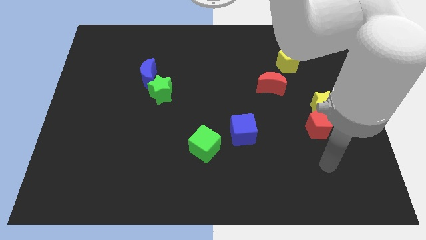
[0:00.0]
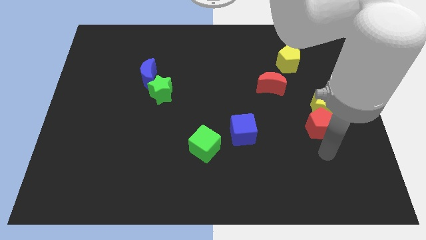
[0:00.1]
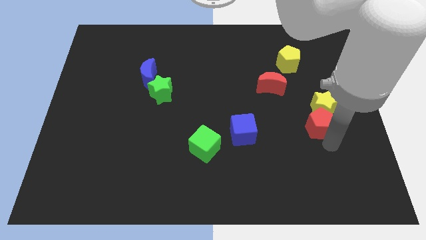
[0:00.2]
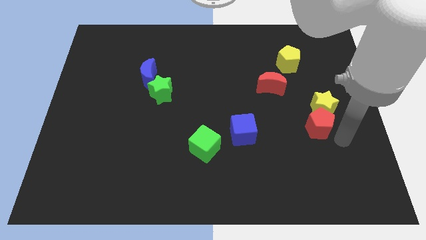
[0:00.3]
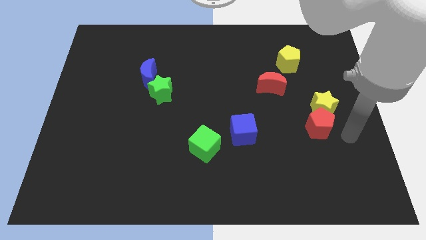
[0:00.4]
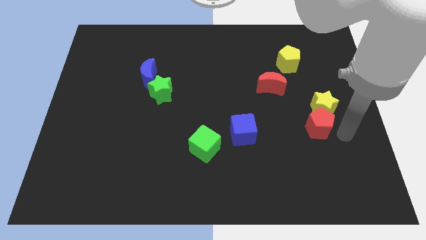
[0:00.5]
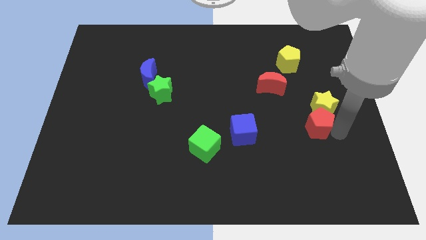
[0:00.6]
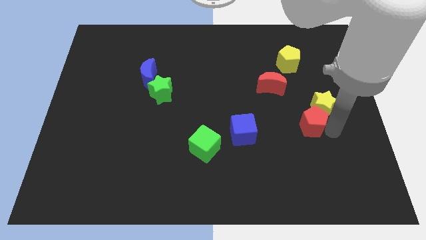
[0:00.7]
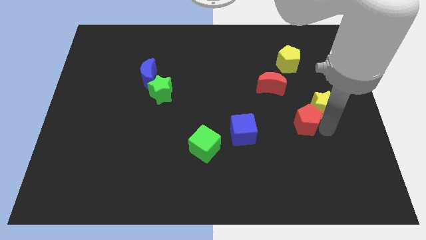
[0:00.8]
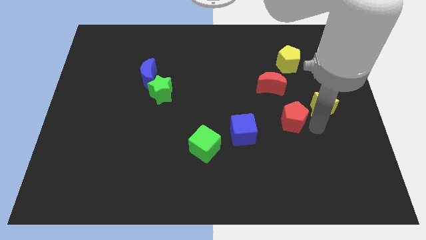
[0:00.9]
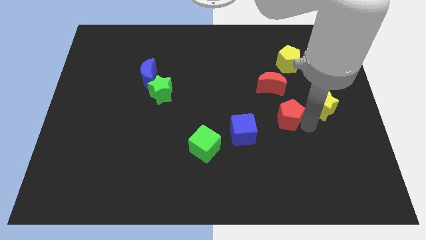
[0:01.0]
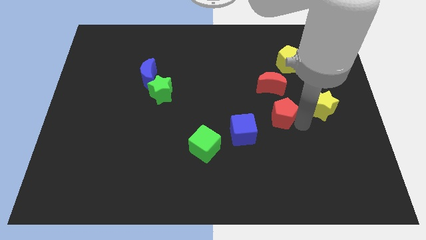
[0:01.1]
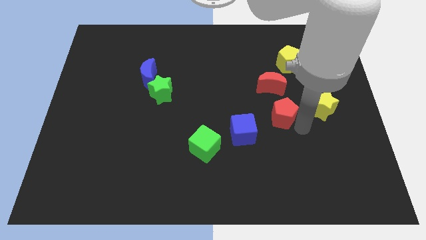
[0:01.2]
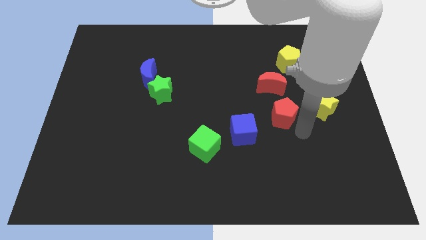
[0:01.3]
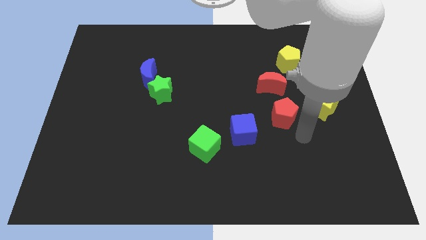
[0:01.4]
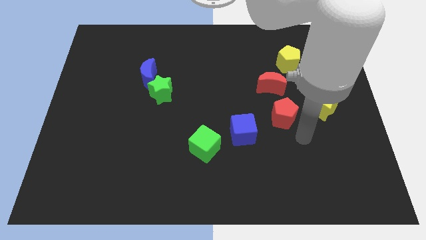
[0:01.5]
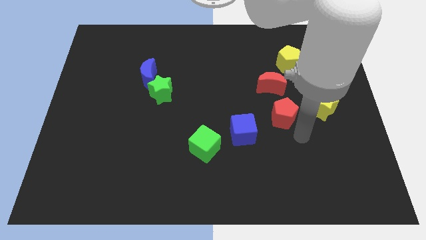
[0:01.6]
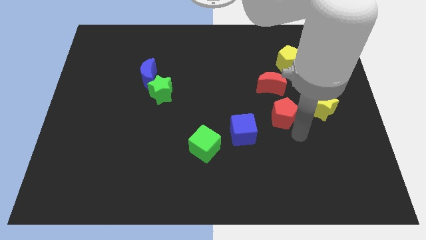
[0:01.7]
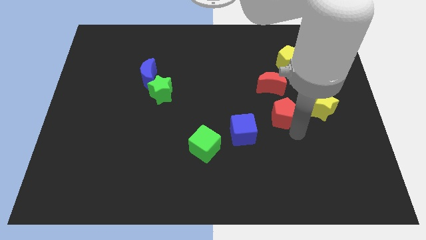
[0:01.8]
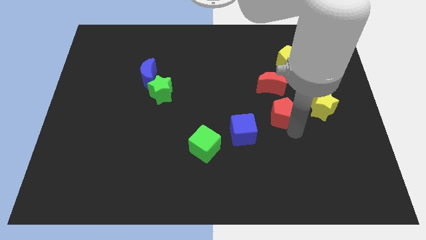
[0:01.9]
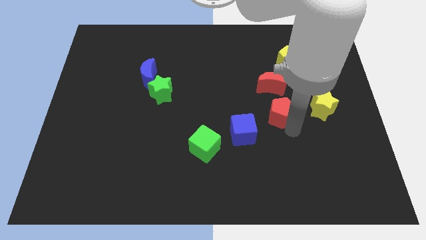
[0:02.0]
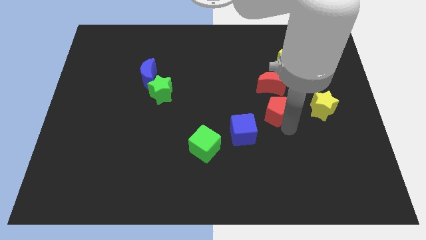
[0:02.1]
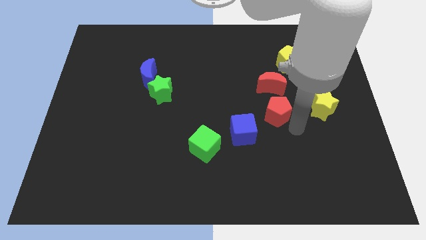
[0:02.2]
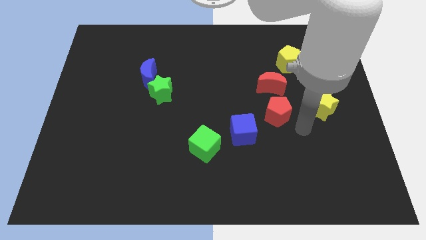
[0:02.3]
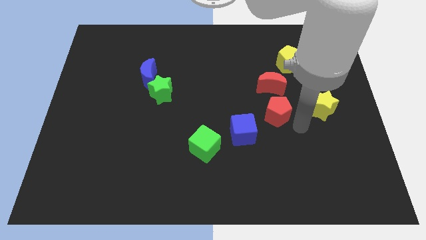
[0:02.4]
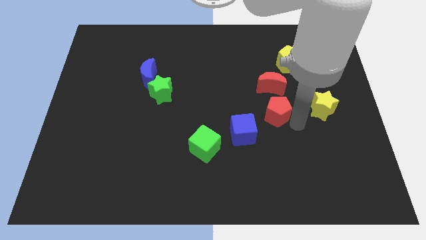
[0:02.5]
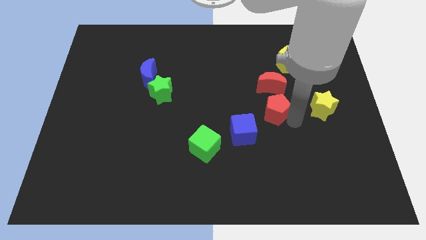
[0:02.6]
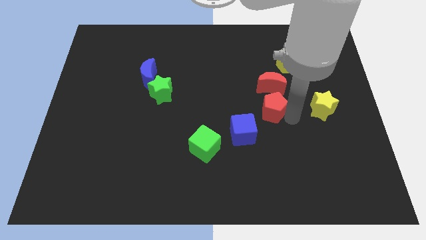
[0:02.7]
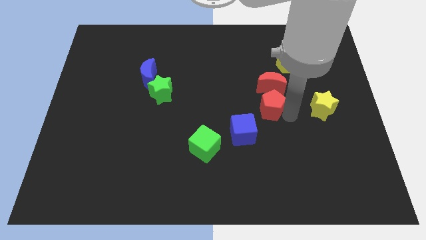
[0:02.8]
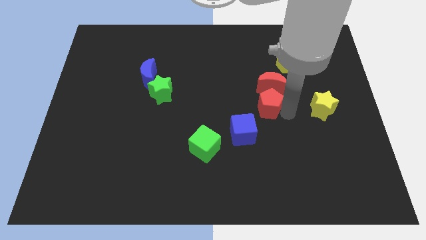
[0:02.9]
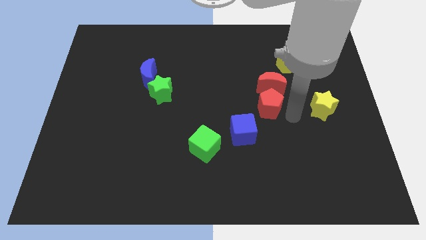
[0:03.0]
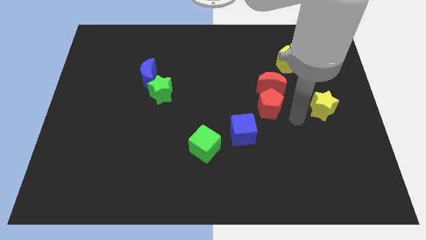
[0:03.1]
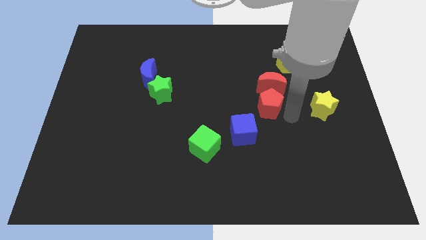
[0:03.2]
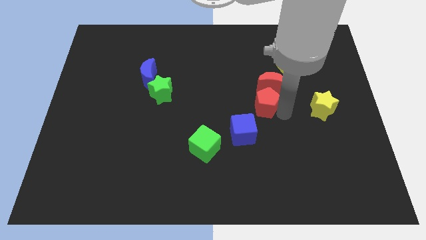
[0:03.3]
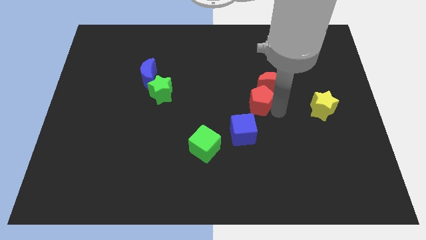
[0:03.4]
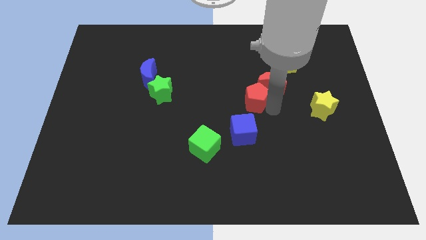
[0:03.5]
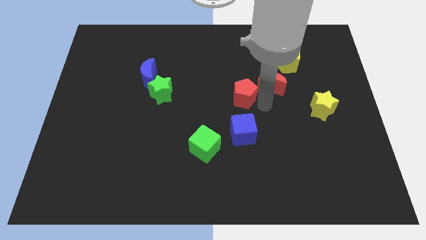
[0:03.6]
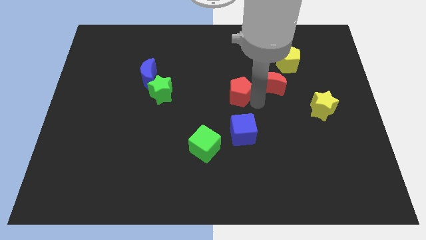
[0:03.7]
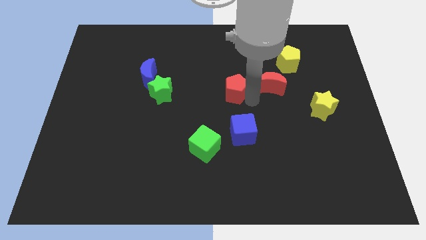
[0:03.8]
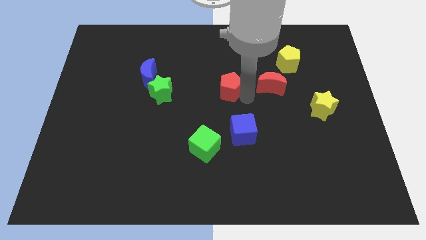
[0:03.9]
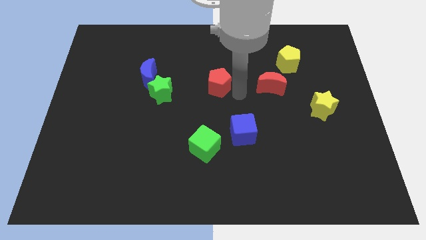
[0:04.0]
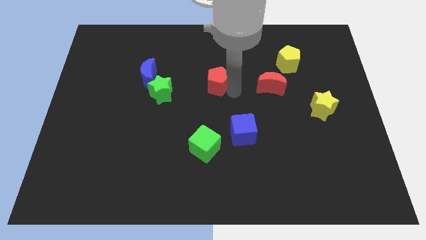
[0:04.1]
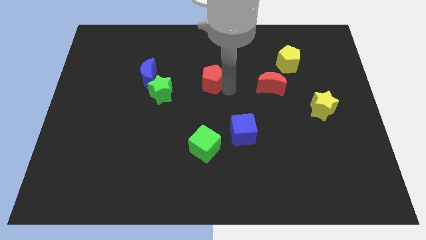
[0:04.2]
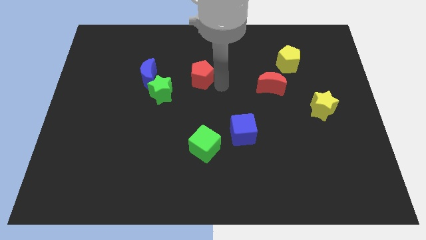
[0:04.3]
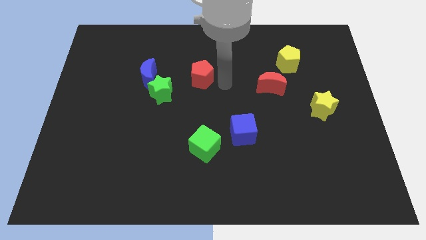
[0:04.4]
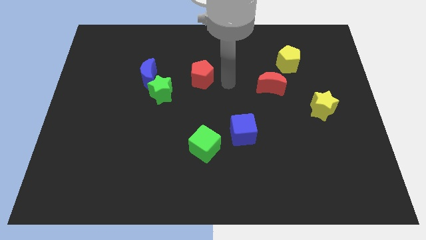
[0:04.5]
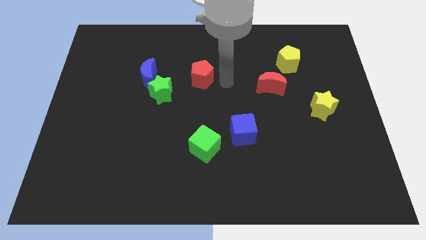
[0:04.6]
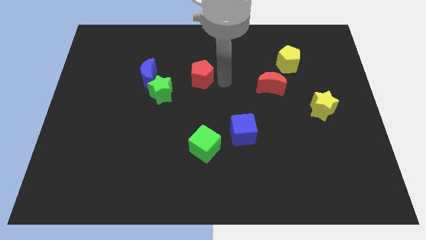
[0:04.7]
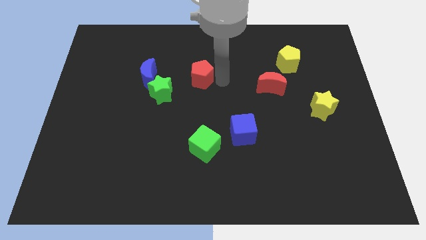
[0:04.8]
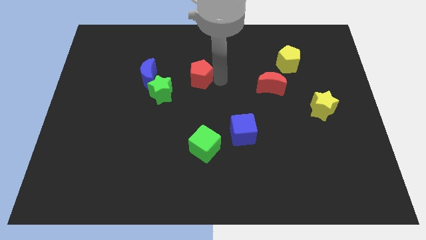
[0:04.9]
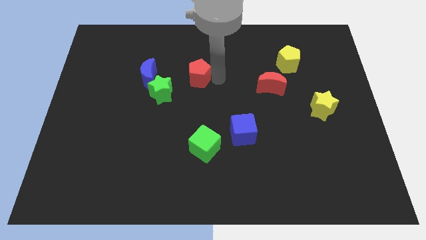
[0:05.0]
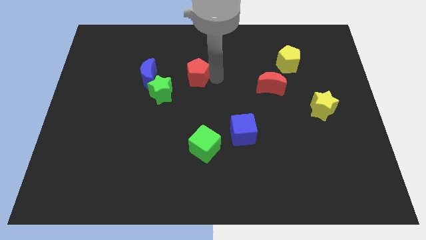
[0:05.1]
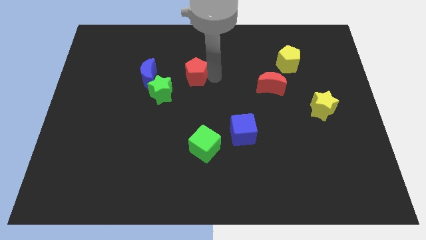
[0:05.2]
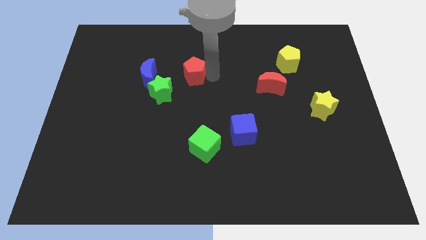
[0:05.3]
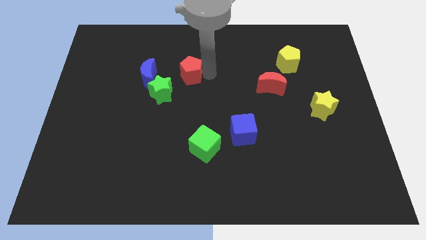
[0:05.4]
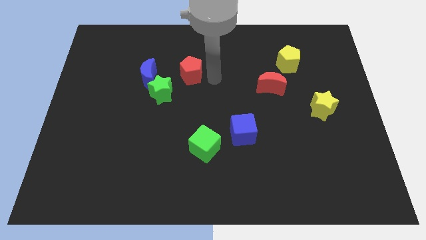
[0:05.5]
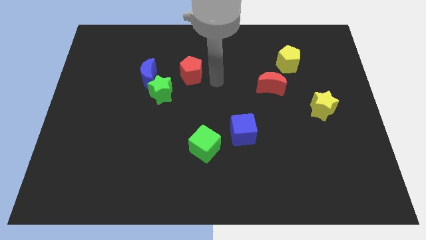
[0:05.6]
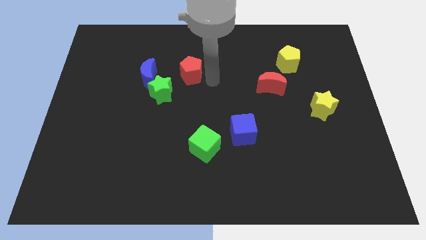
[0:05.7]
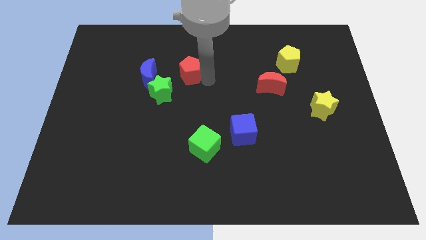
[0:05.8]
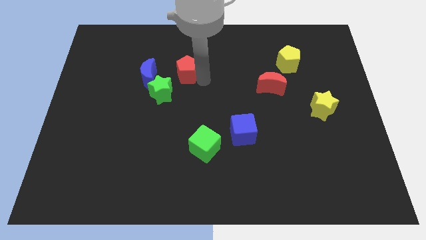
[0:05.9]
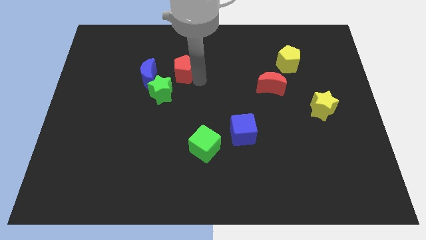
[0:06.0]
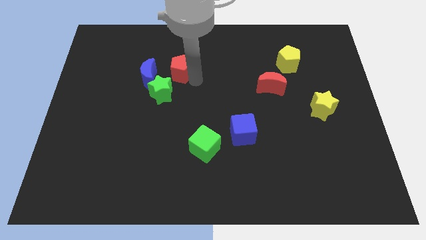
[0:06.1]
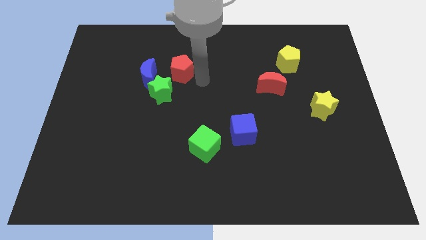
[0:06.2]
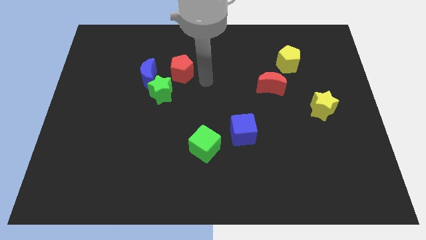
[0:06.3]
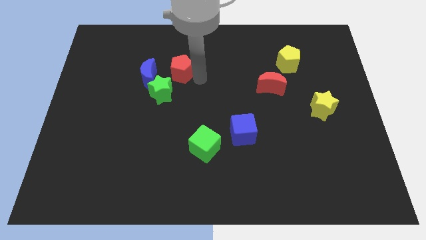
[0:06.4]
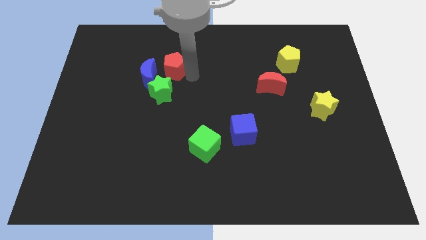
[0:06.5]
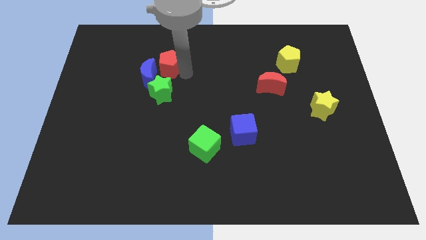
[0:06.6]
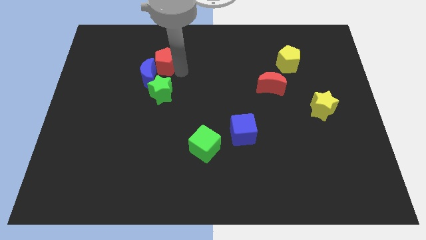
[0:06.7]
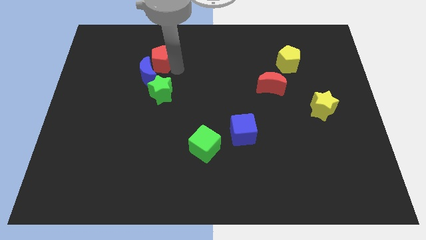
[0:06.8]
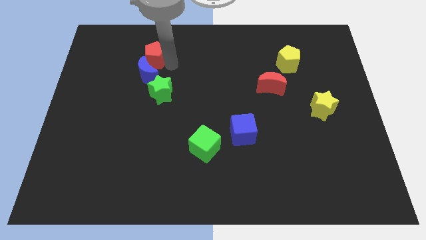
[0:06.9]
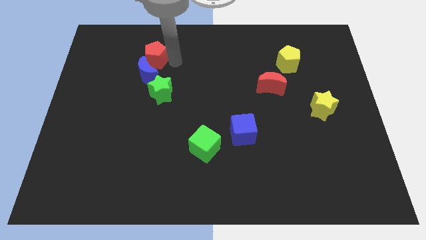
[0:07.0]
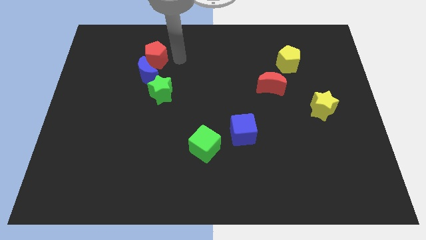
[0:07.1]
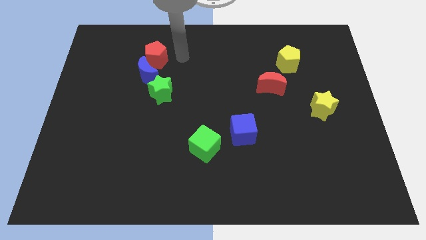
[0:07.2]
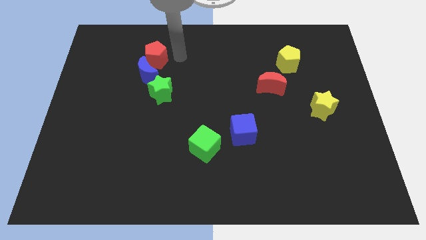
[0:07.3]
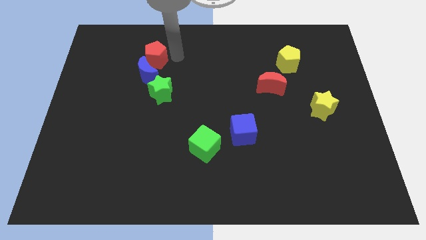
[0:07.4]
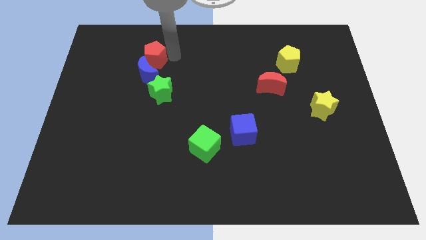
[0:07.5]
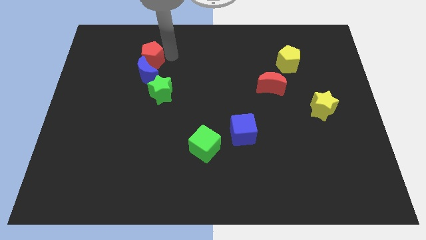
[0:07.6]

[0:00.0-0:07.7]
put the red pentagon to the top left side of the blue moon

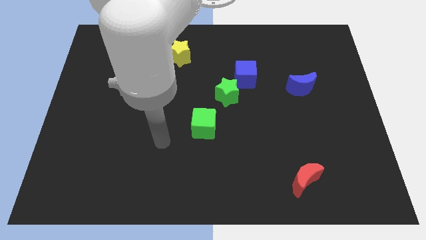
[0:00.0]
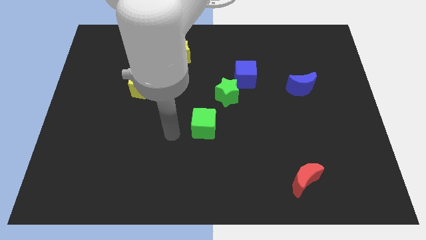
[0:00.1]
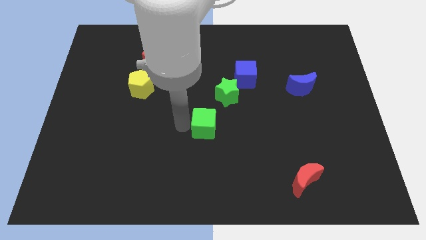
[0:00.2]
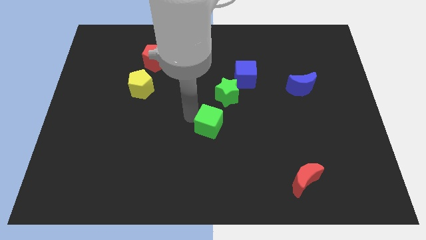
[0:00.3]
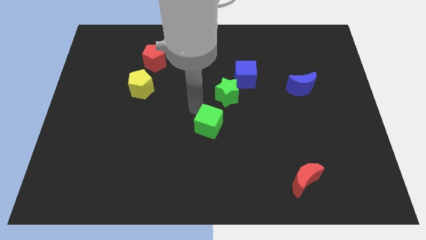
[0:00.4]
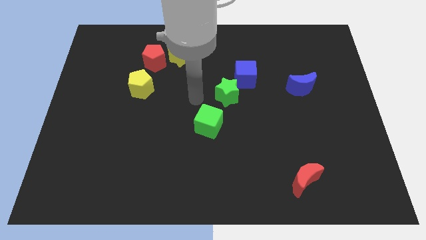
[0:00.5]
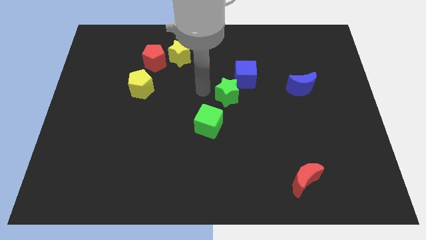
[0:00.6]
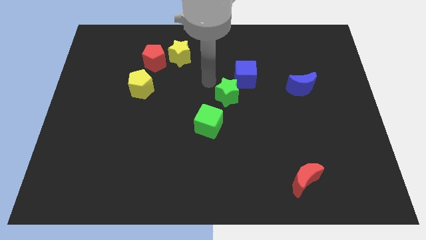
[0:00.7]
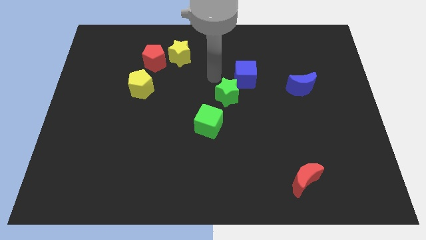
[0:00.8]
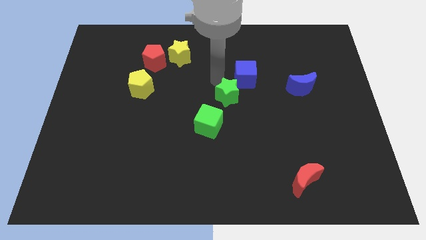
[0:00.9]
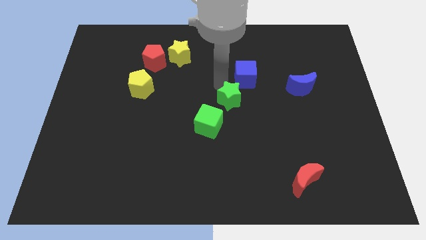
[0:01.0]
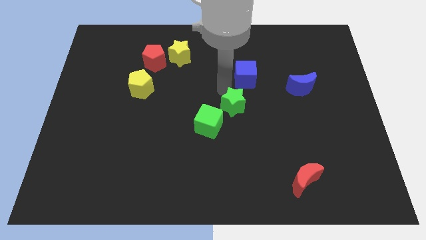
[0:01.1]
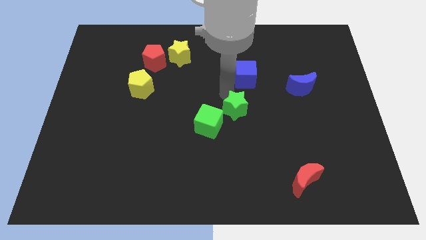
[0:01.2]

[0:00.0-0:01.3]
put the green star right of the green cube
